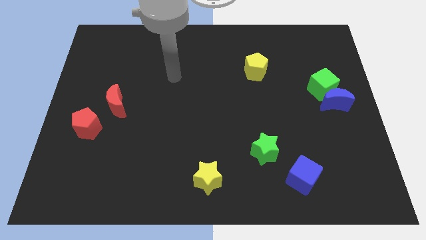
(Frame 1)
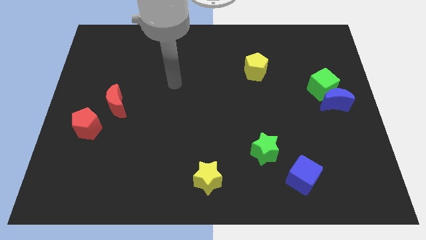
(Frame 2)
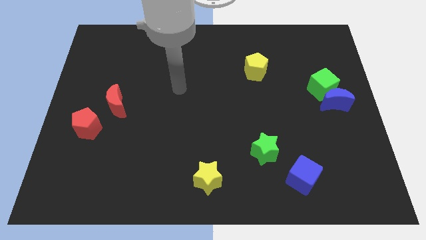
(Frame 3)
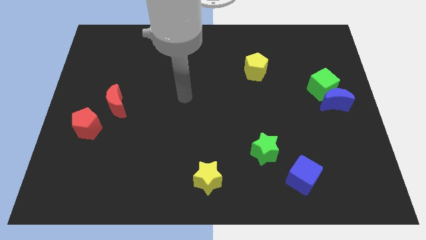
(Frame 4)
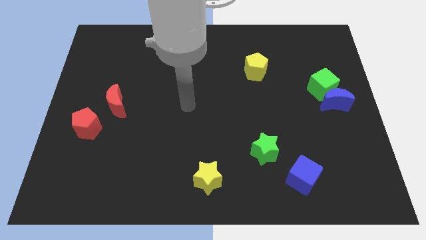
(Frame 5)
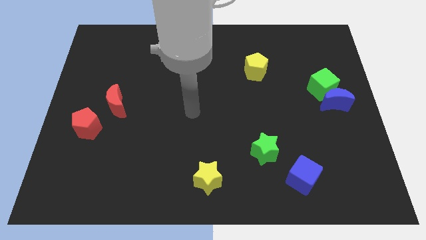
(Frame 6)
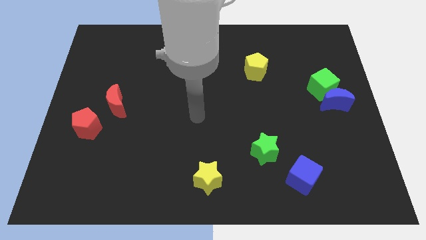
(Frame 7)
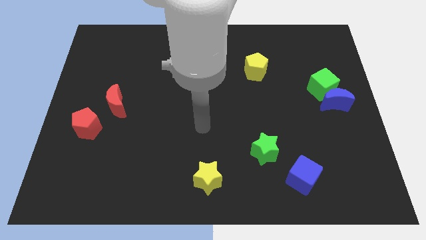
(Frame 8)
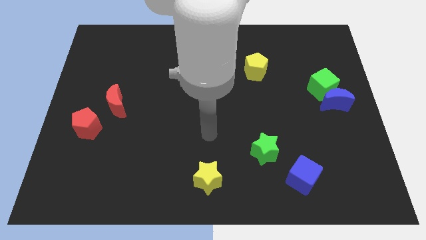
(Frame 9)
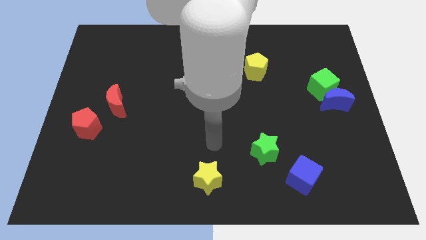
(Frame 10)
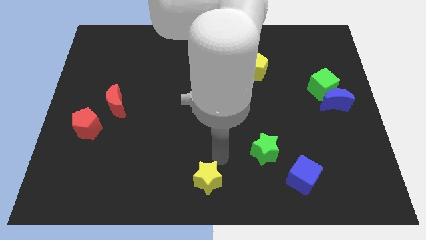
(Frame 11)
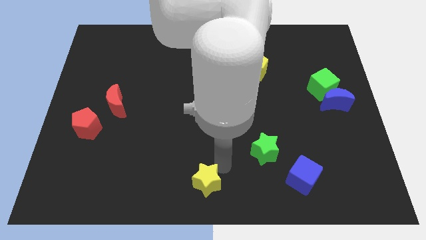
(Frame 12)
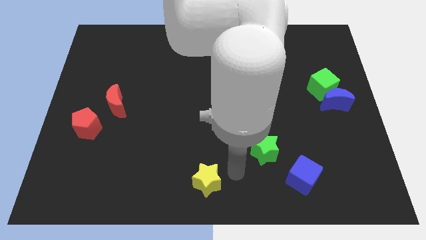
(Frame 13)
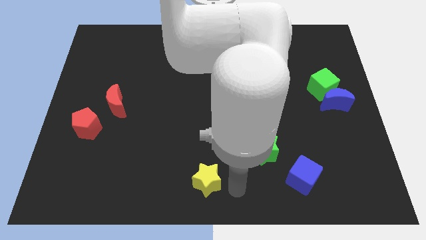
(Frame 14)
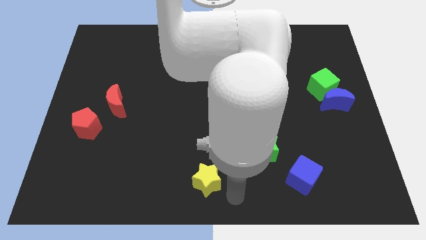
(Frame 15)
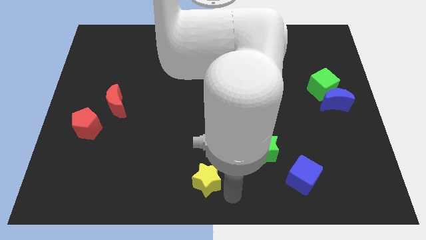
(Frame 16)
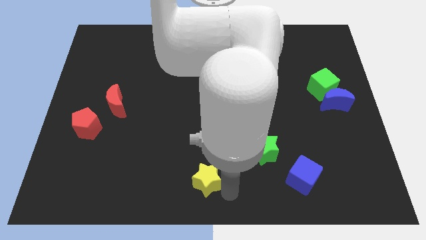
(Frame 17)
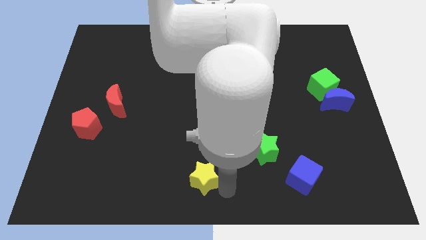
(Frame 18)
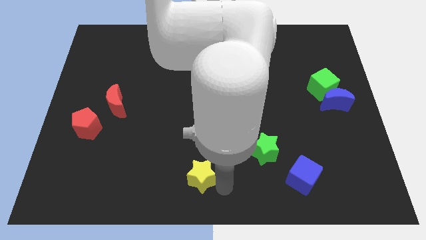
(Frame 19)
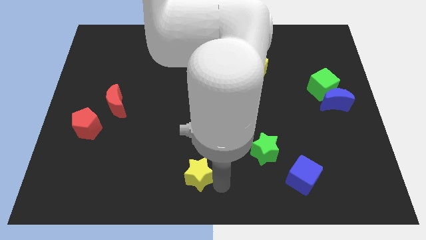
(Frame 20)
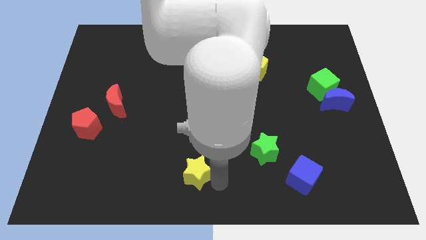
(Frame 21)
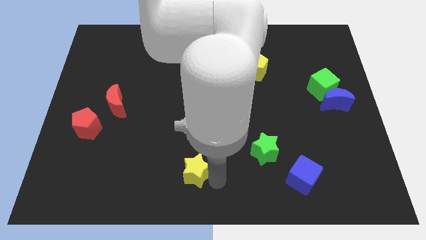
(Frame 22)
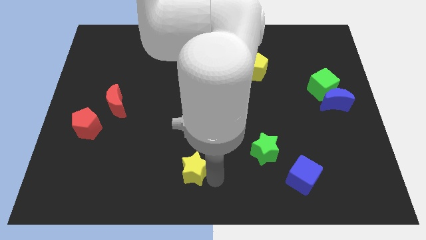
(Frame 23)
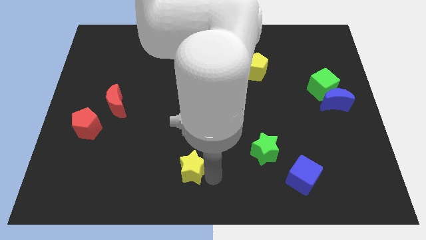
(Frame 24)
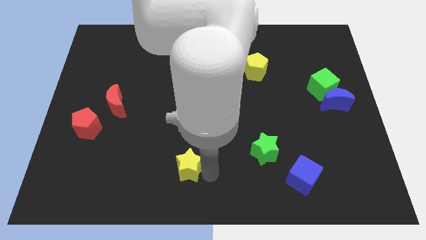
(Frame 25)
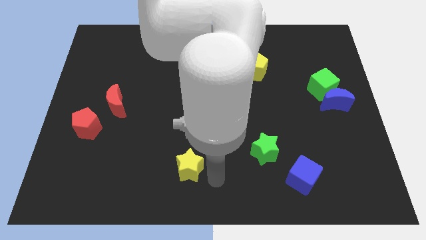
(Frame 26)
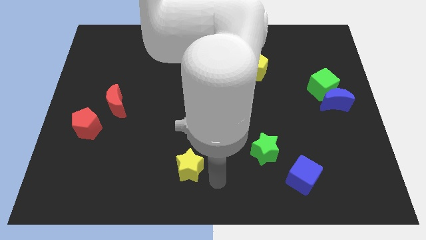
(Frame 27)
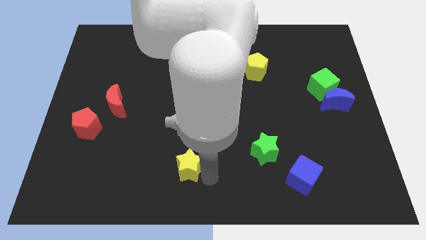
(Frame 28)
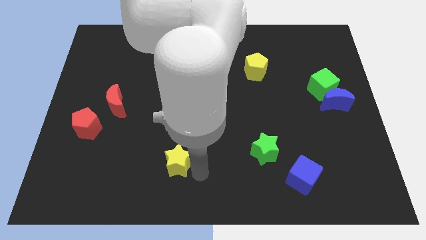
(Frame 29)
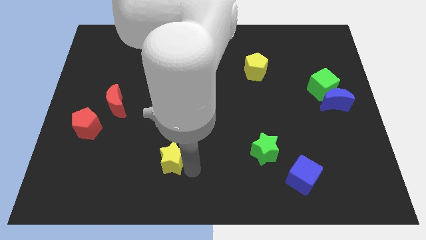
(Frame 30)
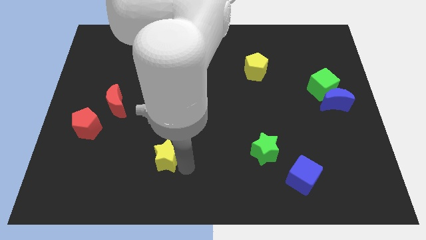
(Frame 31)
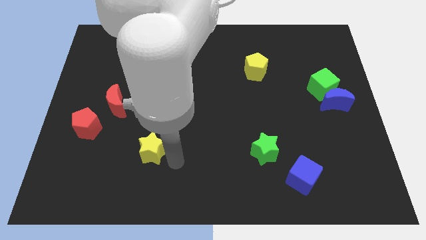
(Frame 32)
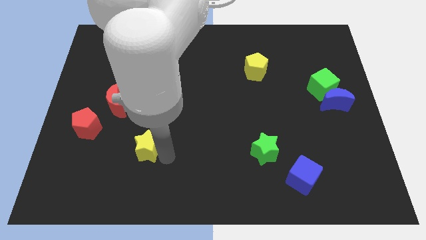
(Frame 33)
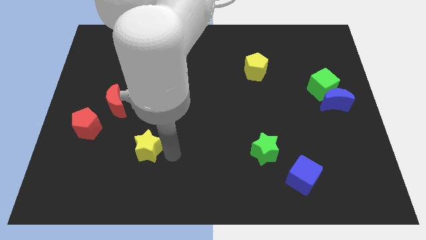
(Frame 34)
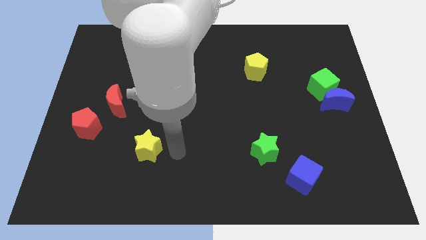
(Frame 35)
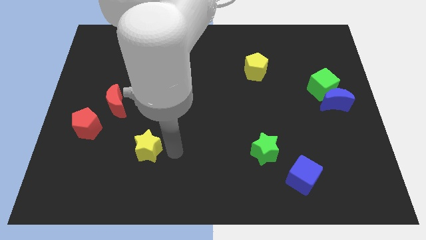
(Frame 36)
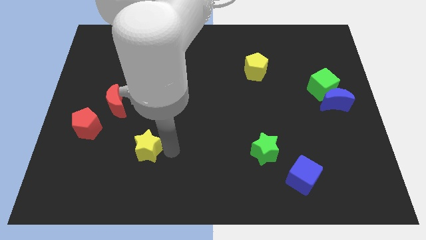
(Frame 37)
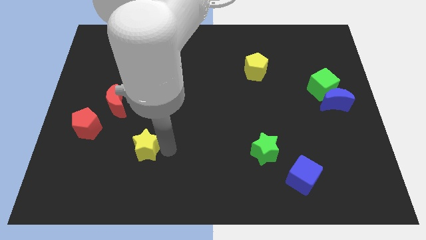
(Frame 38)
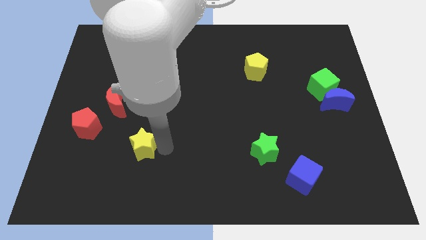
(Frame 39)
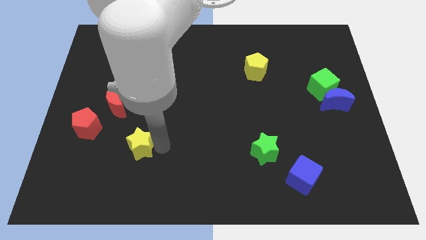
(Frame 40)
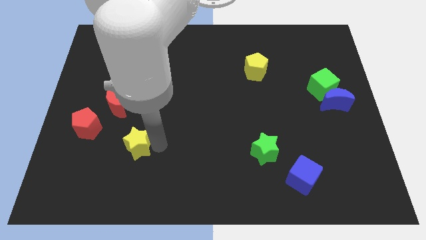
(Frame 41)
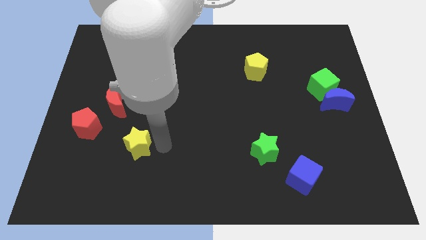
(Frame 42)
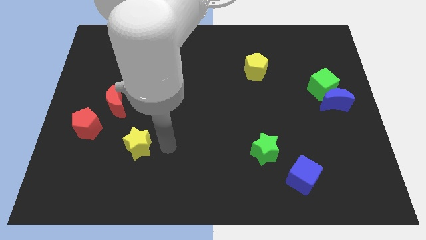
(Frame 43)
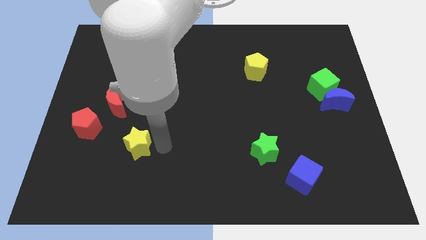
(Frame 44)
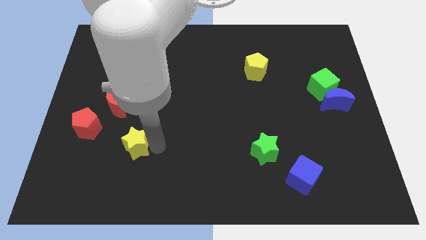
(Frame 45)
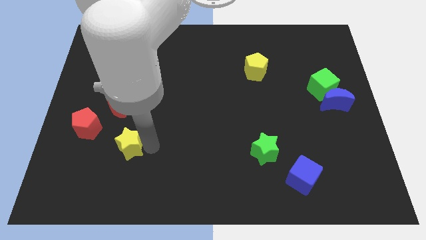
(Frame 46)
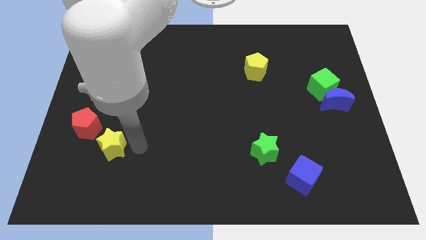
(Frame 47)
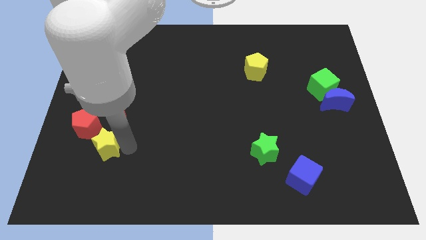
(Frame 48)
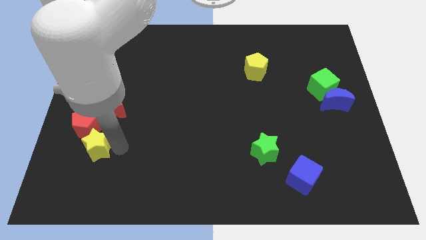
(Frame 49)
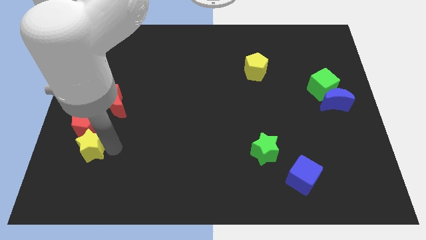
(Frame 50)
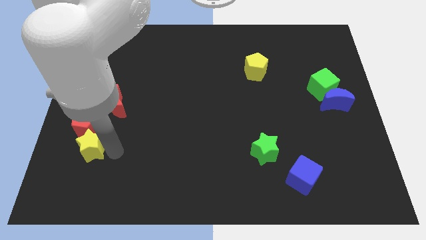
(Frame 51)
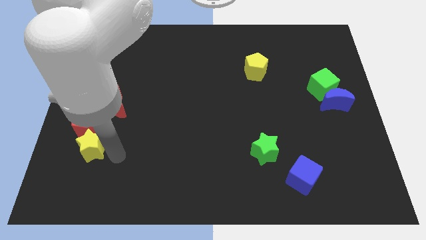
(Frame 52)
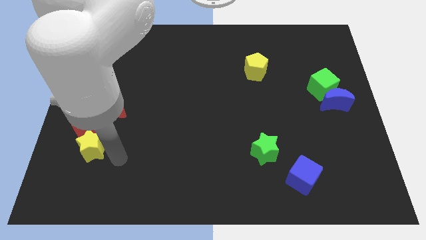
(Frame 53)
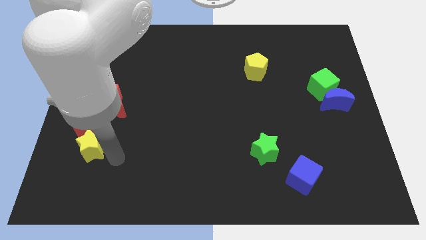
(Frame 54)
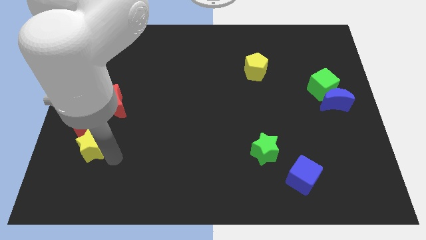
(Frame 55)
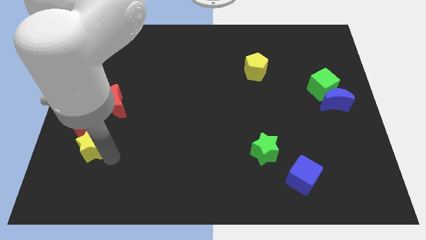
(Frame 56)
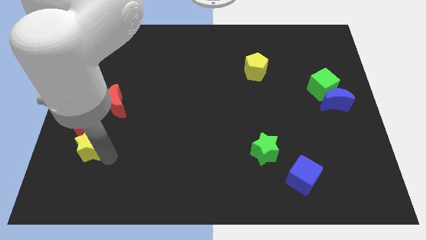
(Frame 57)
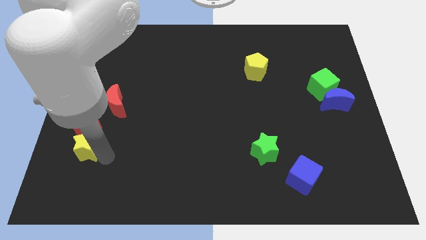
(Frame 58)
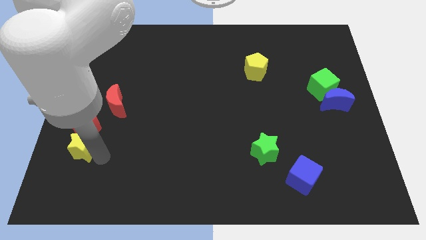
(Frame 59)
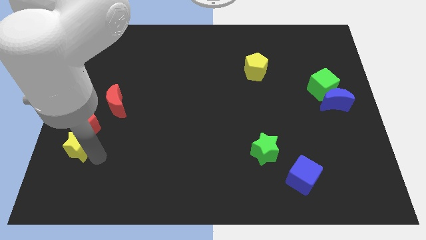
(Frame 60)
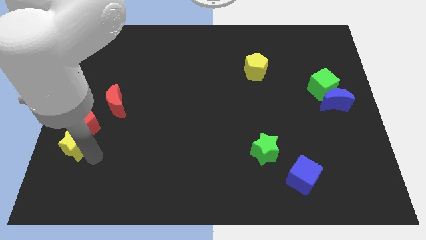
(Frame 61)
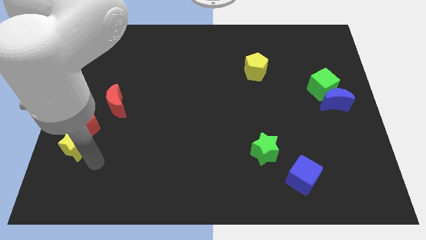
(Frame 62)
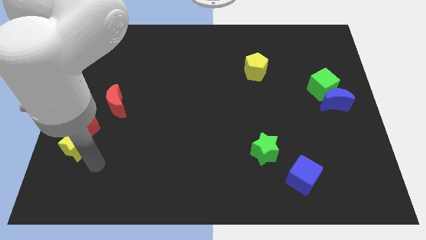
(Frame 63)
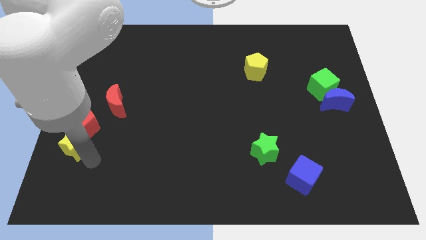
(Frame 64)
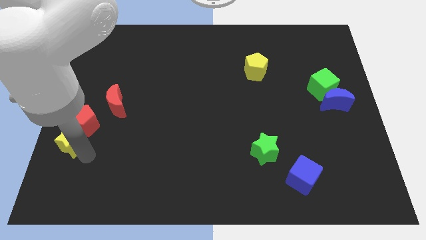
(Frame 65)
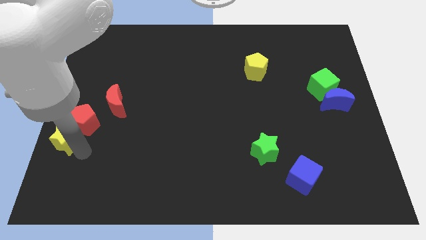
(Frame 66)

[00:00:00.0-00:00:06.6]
put the yellow star to the left side of the board
